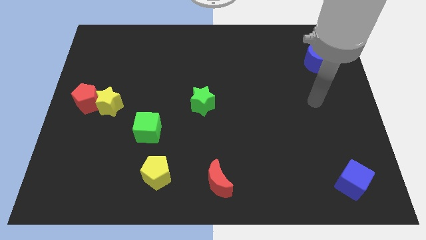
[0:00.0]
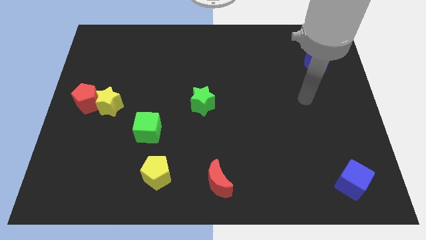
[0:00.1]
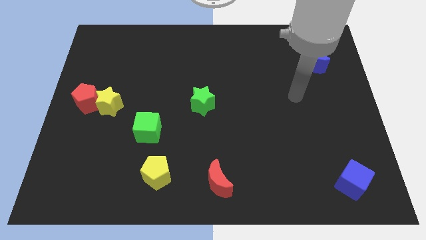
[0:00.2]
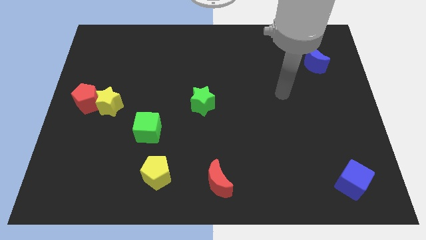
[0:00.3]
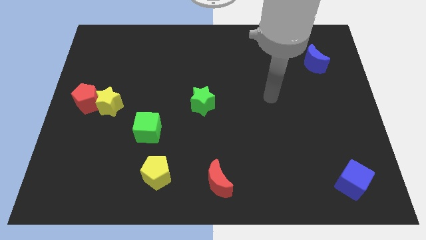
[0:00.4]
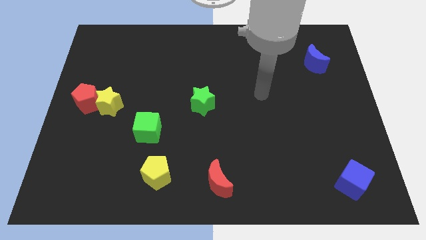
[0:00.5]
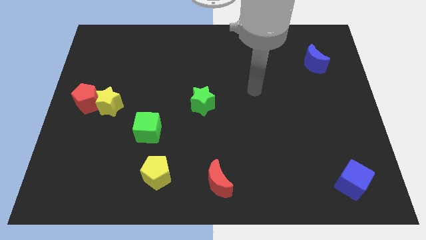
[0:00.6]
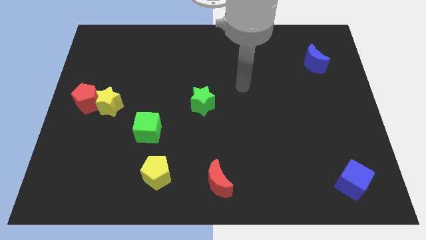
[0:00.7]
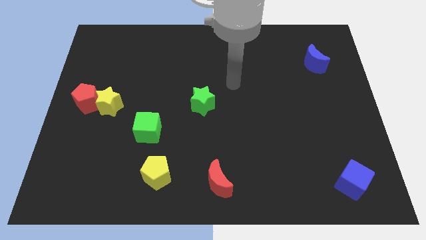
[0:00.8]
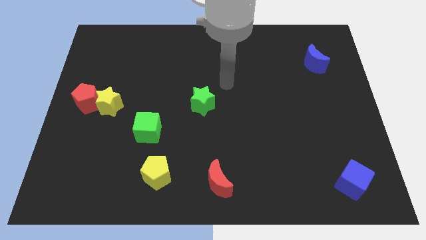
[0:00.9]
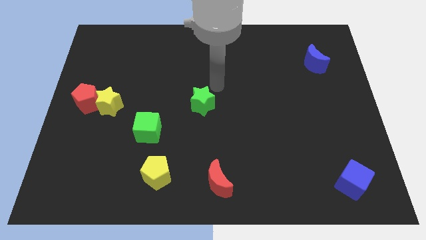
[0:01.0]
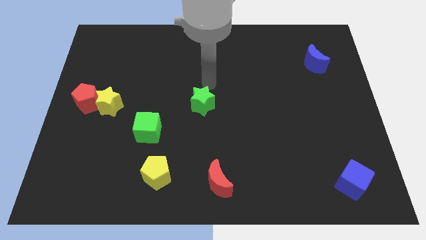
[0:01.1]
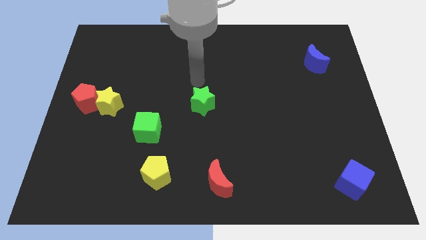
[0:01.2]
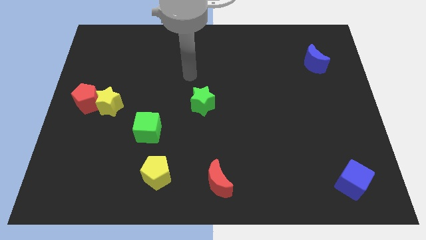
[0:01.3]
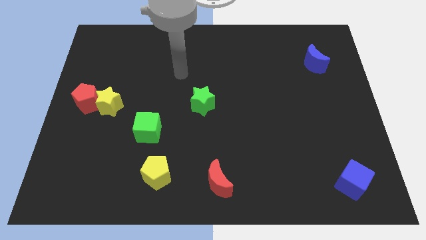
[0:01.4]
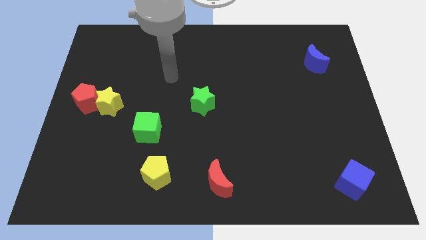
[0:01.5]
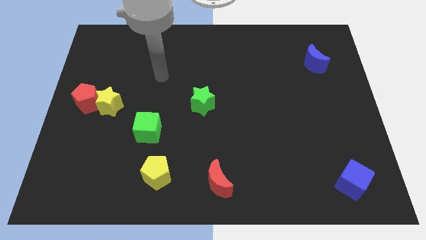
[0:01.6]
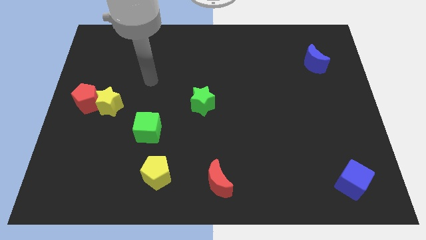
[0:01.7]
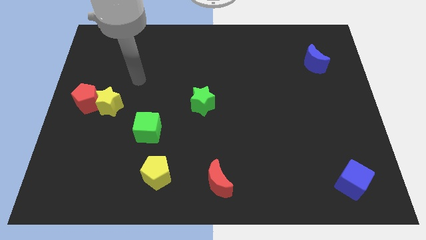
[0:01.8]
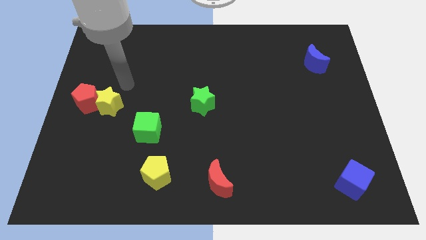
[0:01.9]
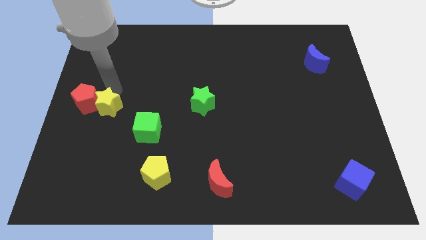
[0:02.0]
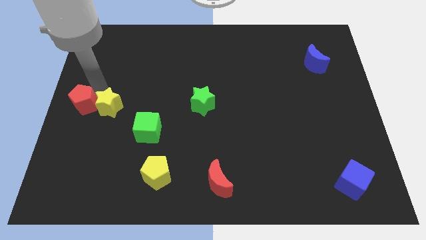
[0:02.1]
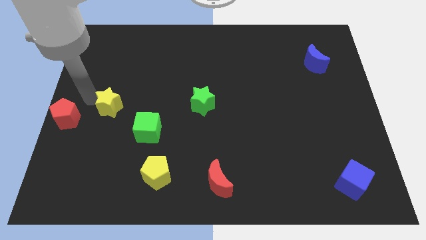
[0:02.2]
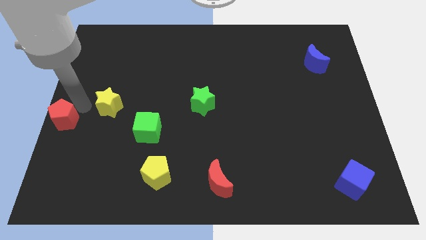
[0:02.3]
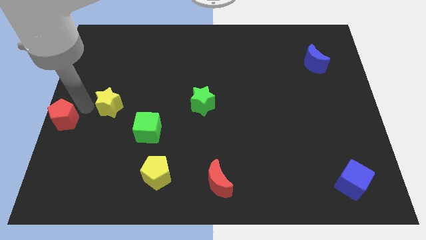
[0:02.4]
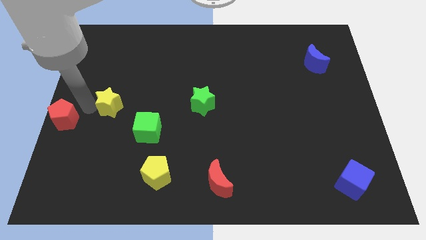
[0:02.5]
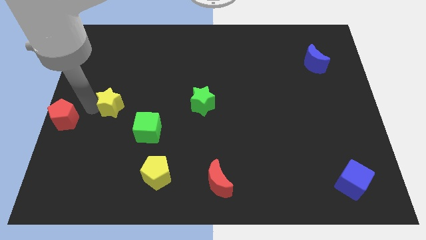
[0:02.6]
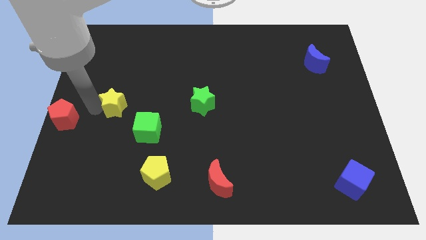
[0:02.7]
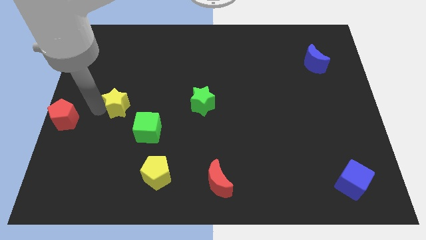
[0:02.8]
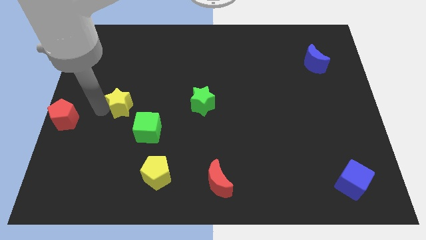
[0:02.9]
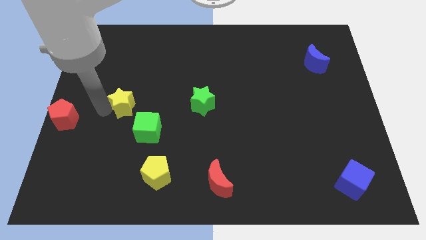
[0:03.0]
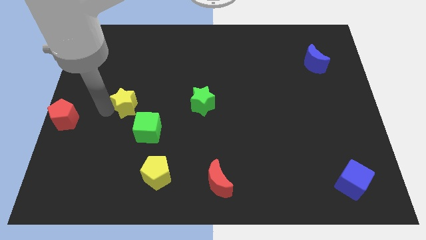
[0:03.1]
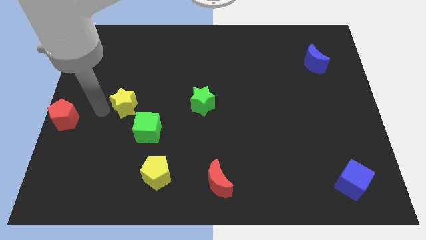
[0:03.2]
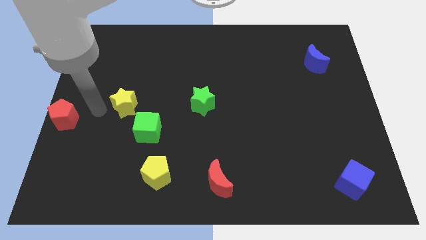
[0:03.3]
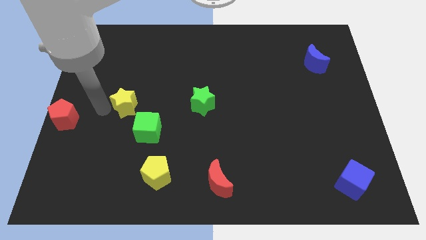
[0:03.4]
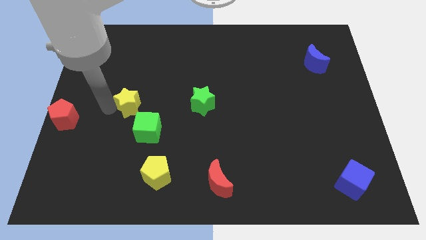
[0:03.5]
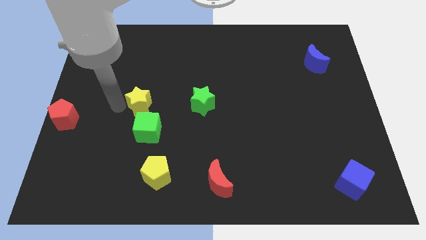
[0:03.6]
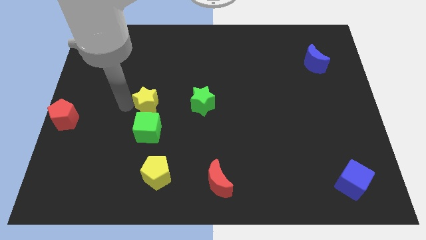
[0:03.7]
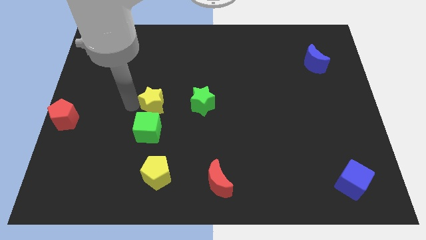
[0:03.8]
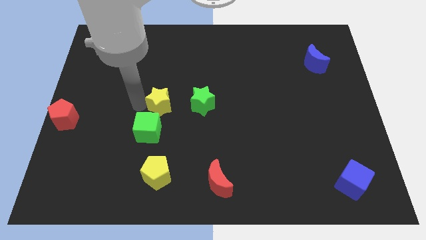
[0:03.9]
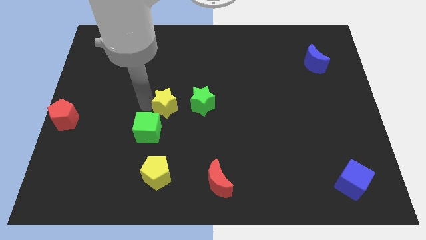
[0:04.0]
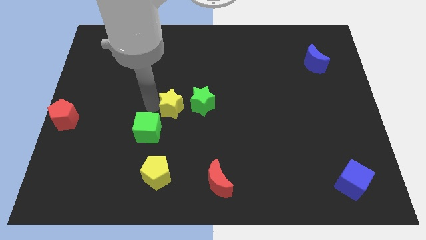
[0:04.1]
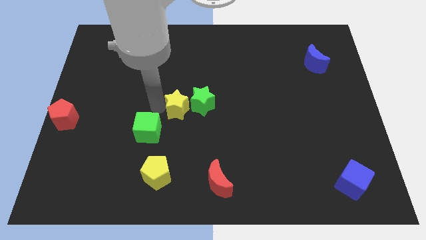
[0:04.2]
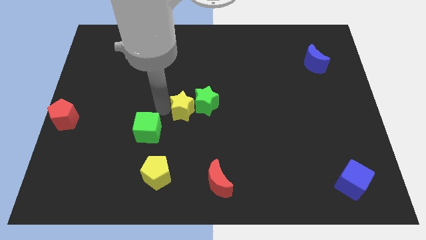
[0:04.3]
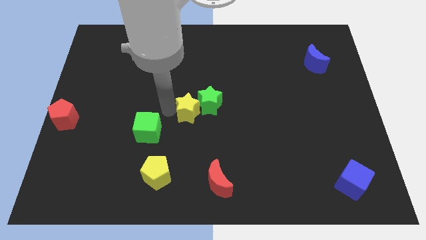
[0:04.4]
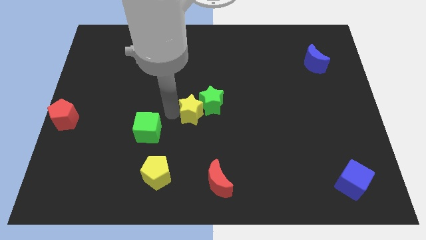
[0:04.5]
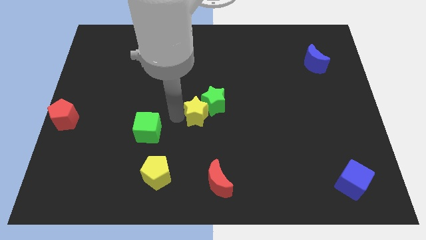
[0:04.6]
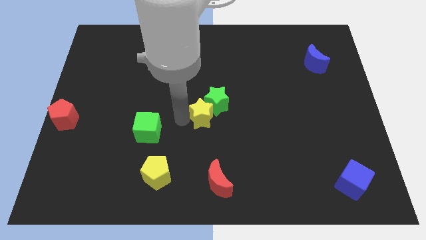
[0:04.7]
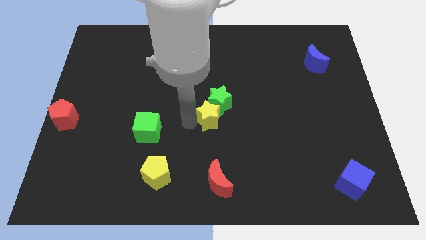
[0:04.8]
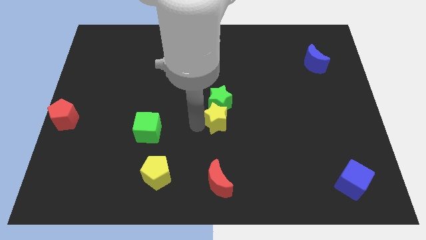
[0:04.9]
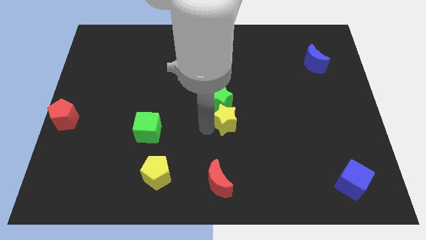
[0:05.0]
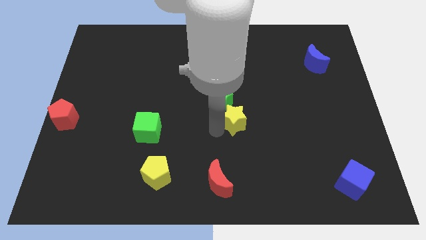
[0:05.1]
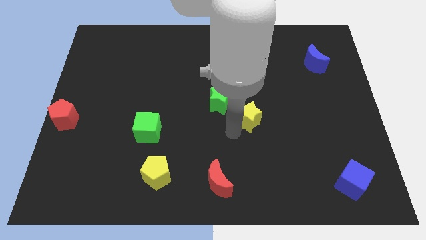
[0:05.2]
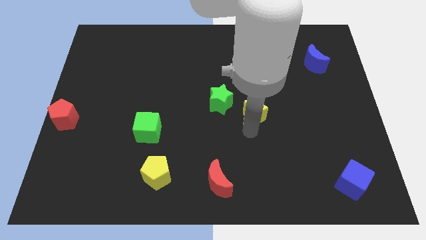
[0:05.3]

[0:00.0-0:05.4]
slide the yellow star just right of the green star

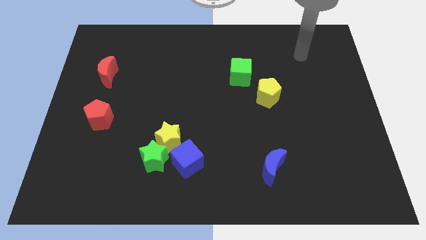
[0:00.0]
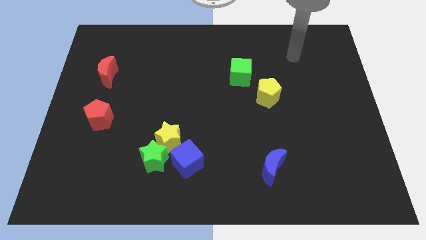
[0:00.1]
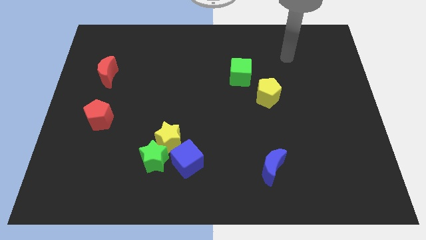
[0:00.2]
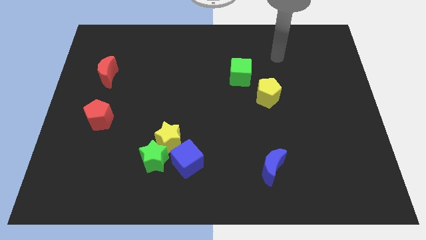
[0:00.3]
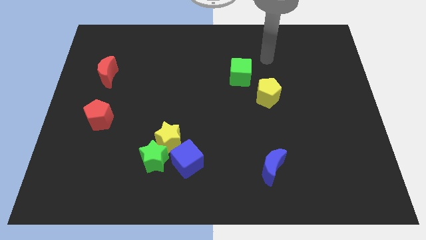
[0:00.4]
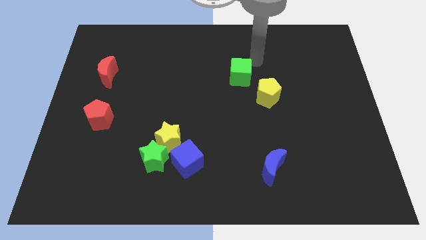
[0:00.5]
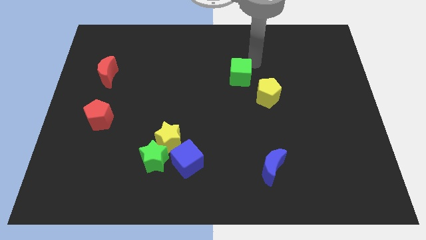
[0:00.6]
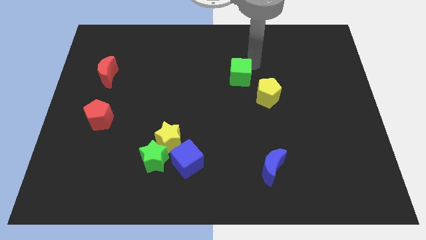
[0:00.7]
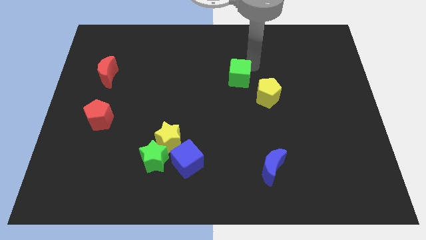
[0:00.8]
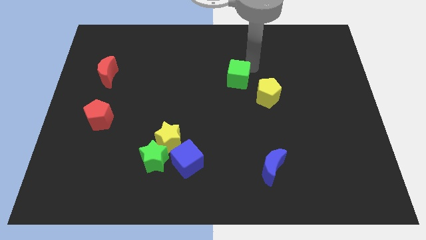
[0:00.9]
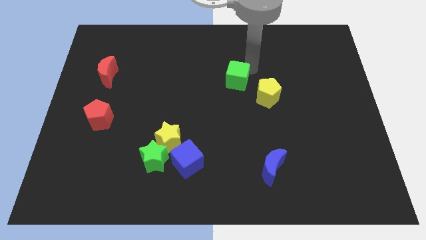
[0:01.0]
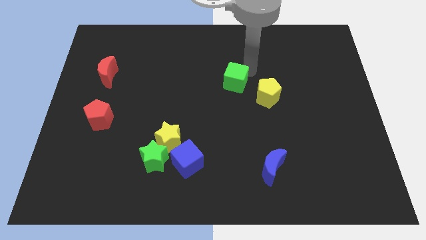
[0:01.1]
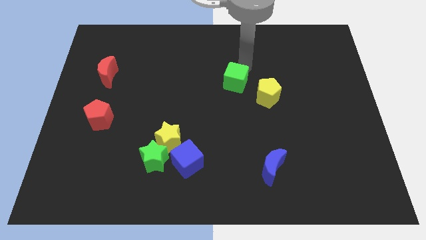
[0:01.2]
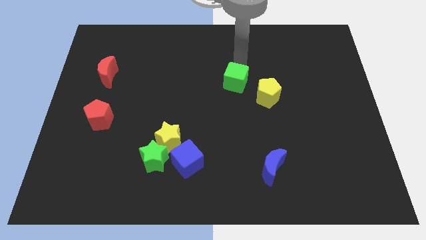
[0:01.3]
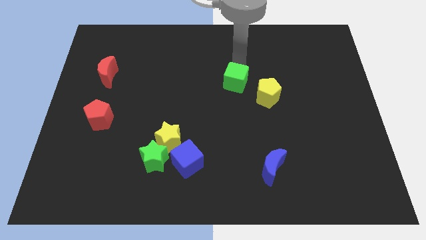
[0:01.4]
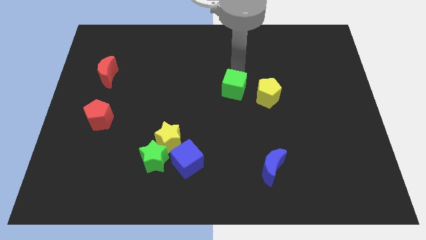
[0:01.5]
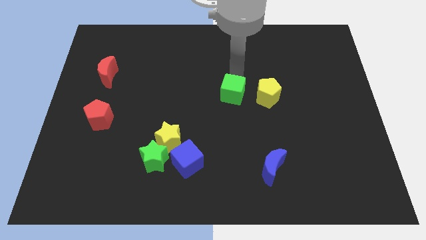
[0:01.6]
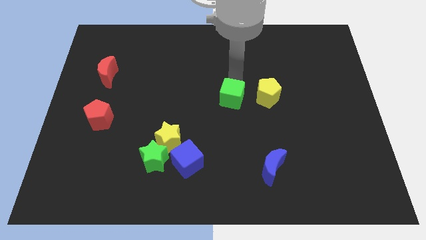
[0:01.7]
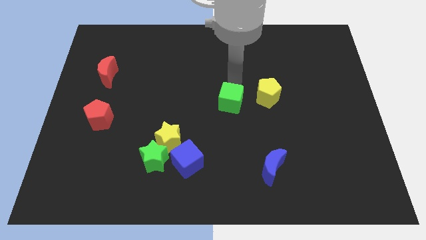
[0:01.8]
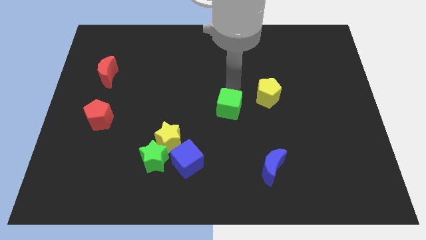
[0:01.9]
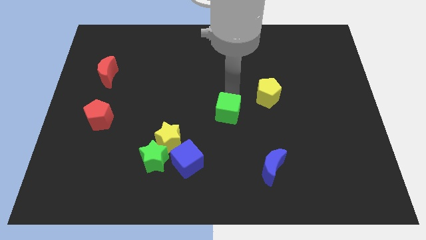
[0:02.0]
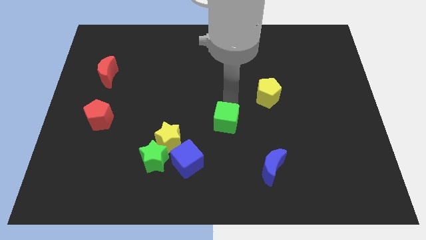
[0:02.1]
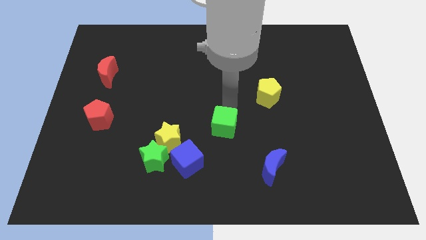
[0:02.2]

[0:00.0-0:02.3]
slide the green cube to the right side of the yellow star

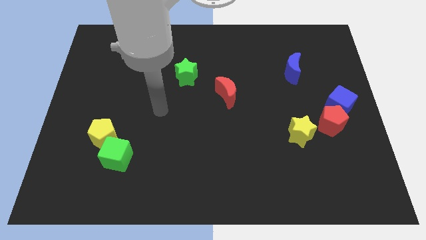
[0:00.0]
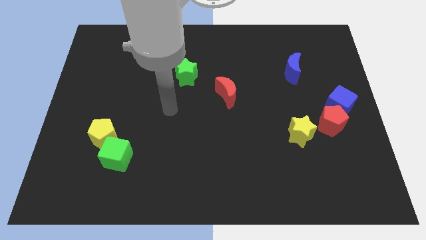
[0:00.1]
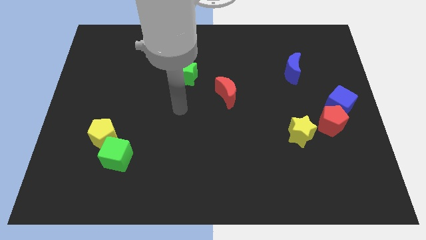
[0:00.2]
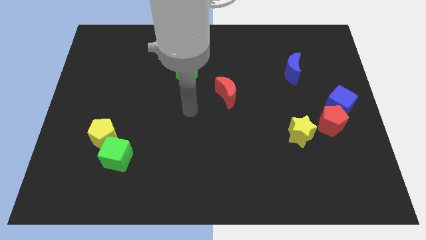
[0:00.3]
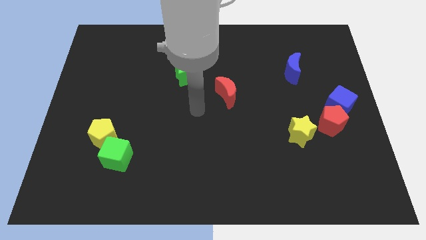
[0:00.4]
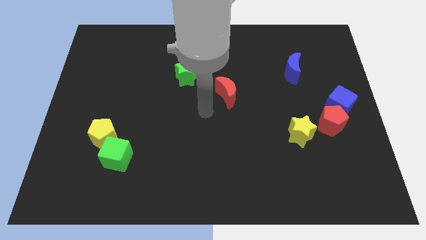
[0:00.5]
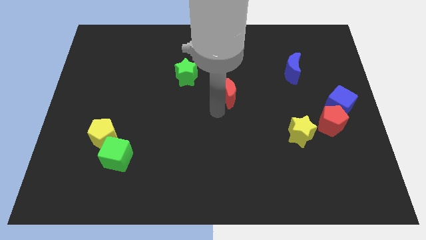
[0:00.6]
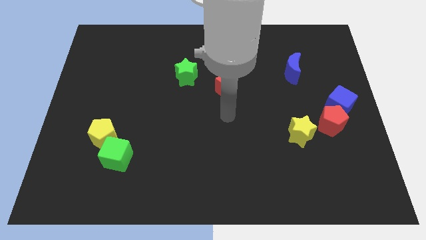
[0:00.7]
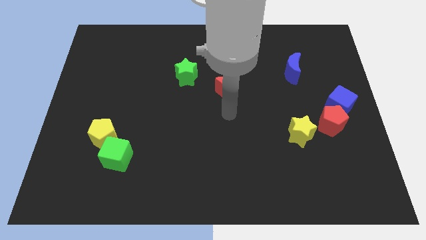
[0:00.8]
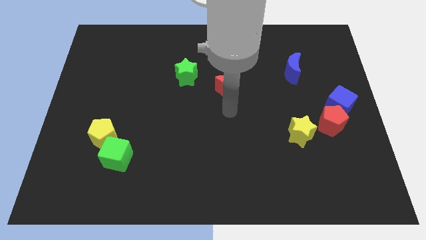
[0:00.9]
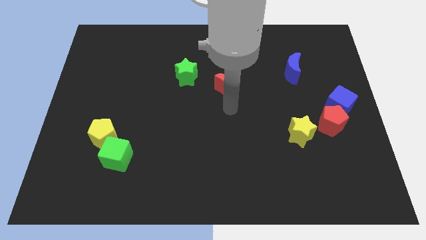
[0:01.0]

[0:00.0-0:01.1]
push the red moon to the right side of the green star
